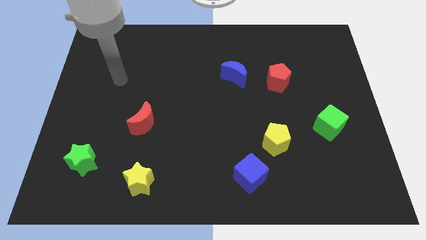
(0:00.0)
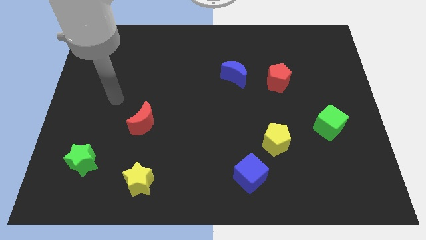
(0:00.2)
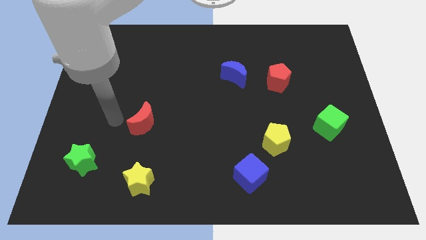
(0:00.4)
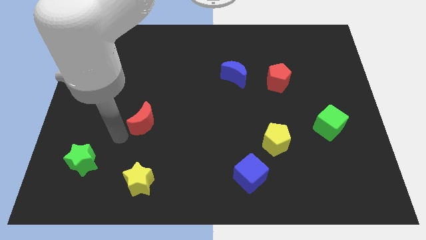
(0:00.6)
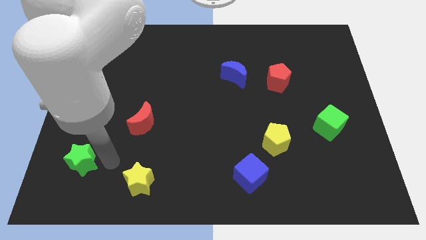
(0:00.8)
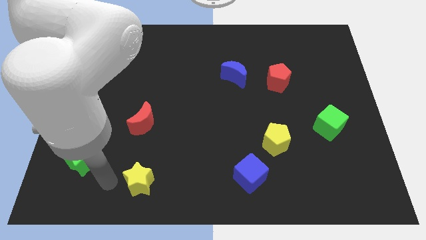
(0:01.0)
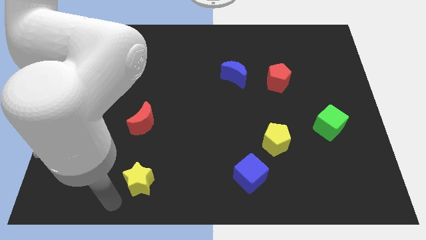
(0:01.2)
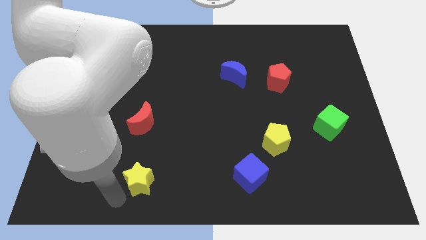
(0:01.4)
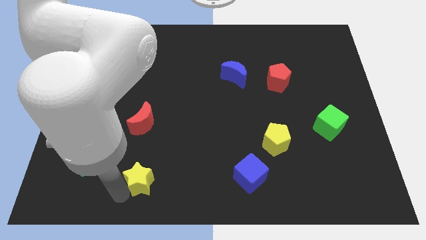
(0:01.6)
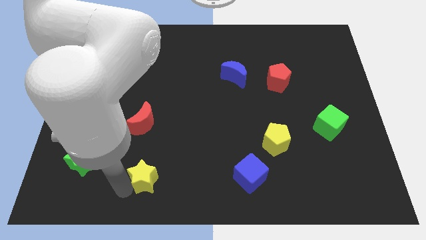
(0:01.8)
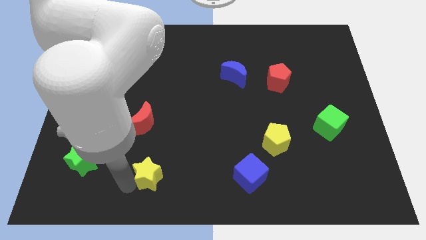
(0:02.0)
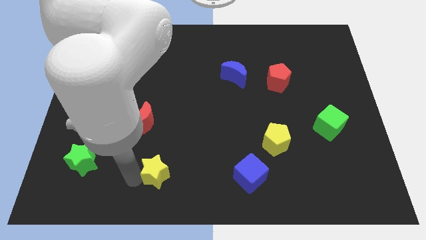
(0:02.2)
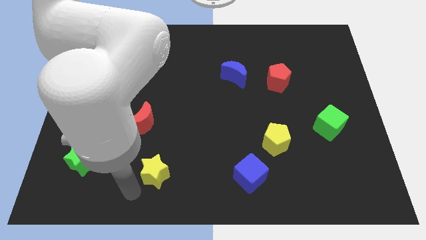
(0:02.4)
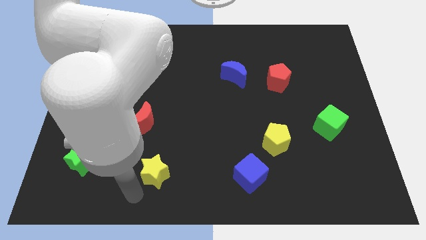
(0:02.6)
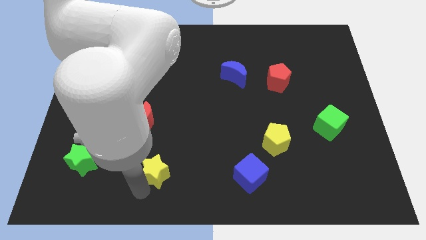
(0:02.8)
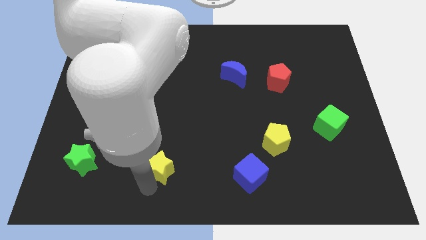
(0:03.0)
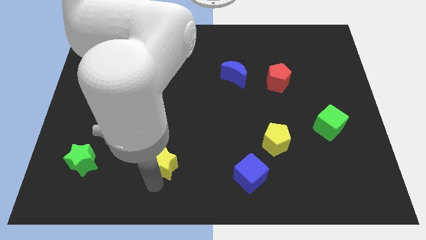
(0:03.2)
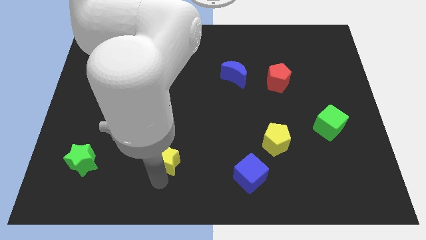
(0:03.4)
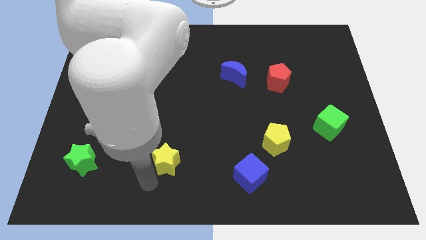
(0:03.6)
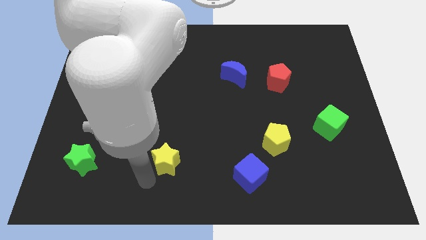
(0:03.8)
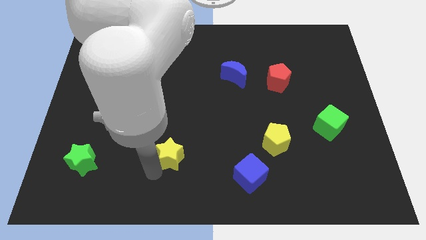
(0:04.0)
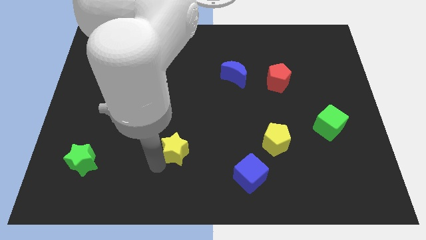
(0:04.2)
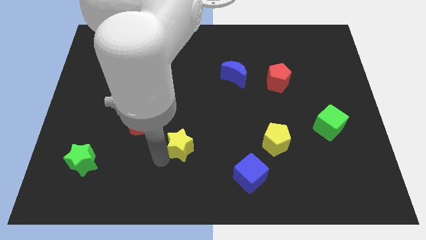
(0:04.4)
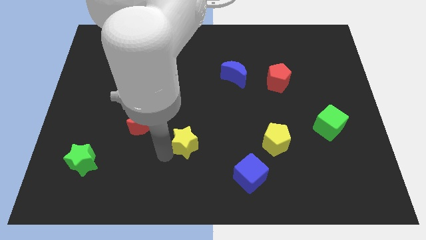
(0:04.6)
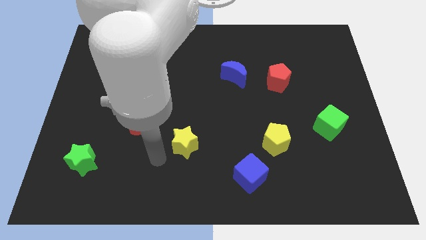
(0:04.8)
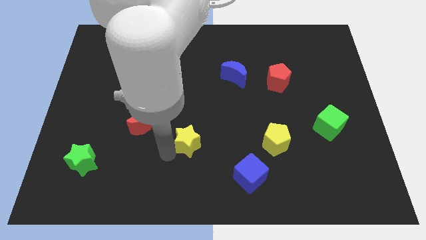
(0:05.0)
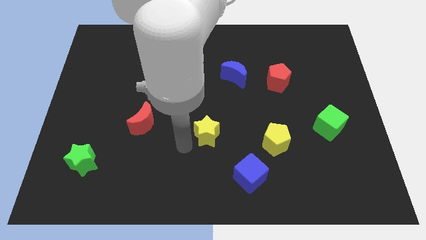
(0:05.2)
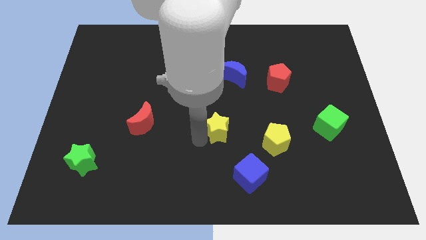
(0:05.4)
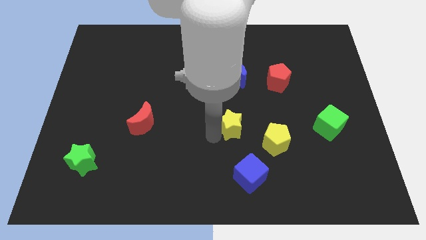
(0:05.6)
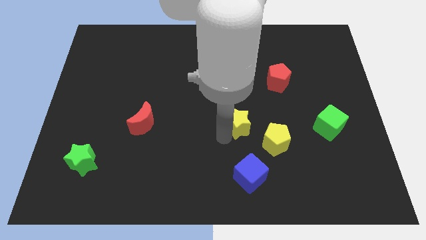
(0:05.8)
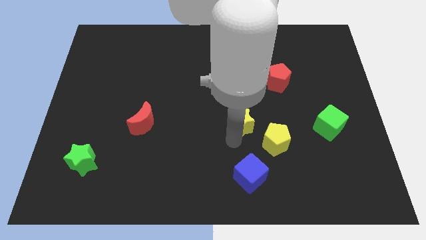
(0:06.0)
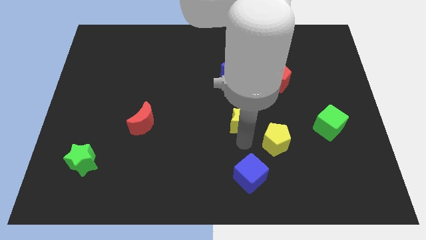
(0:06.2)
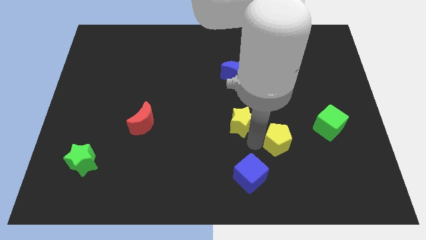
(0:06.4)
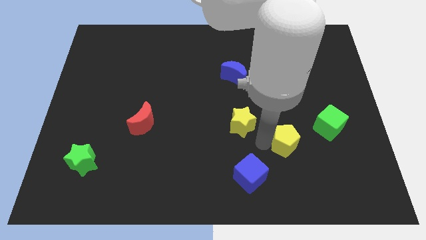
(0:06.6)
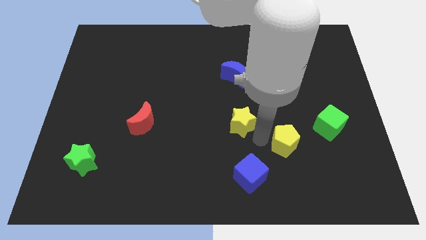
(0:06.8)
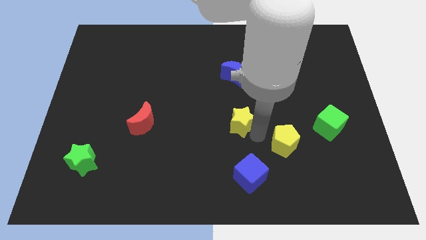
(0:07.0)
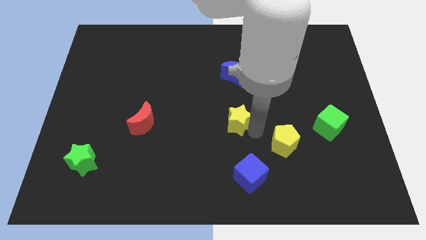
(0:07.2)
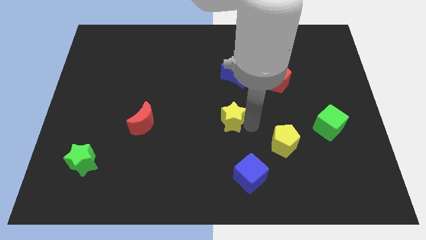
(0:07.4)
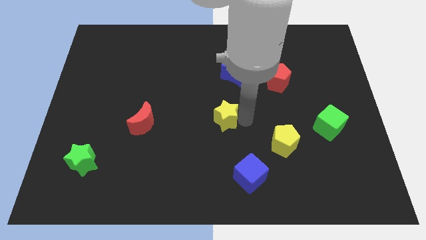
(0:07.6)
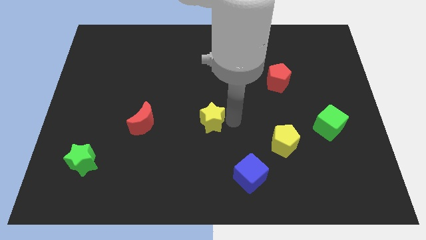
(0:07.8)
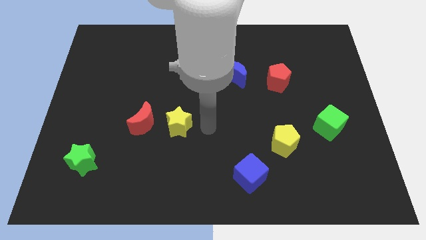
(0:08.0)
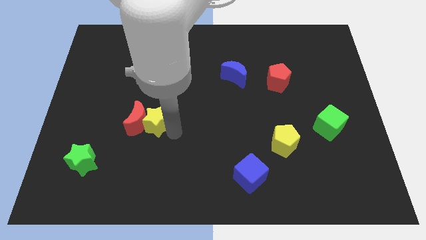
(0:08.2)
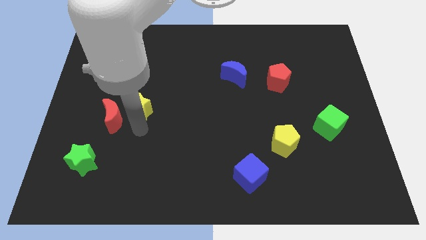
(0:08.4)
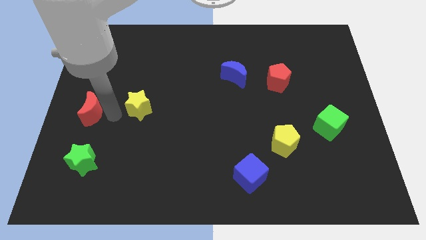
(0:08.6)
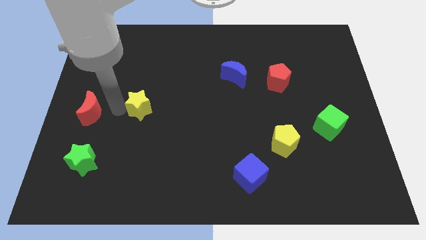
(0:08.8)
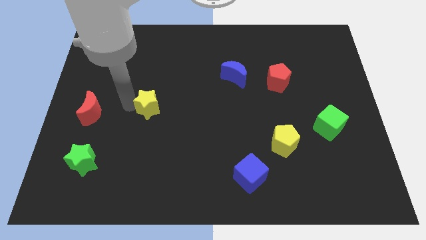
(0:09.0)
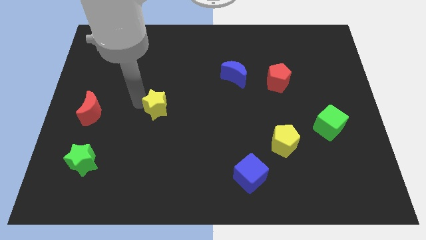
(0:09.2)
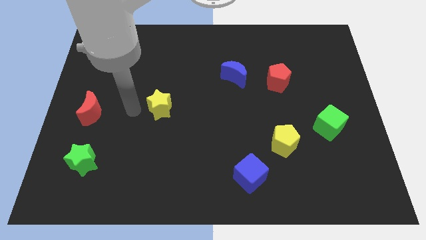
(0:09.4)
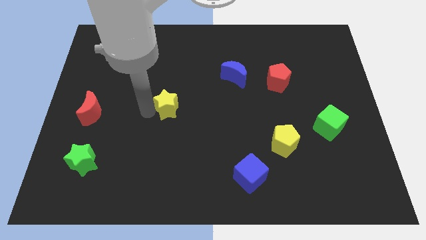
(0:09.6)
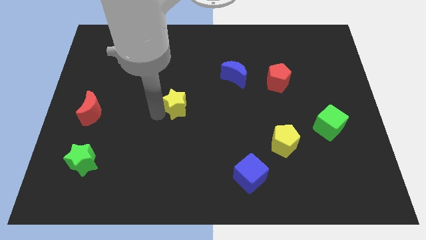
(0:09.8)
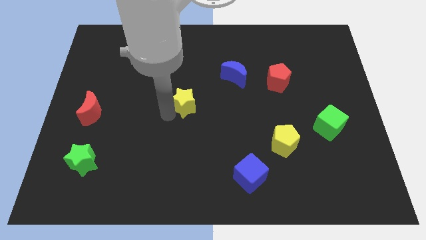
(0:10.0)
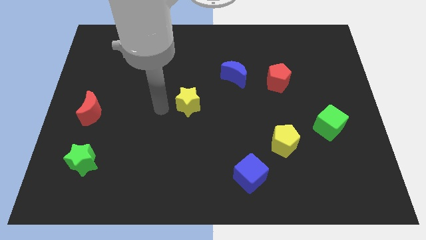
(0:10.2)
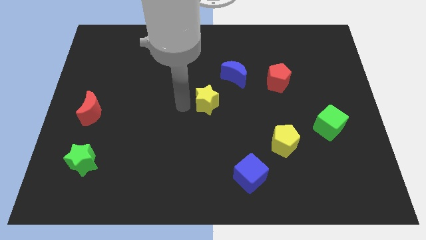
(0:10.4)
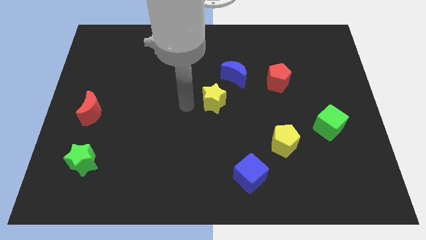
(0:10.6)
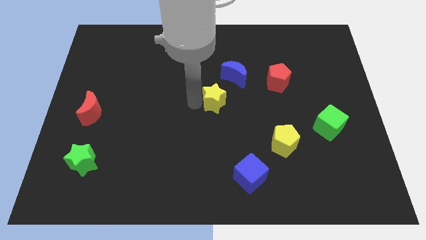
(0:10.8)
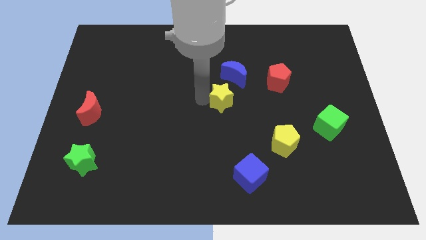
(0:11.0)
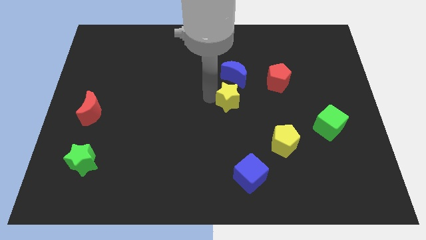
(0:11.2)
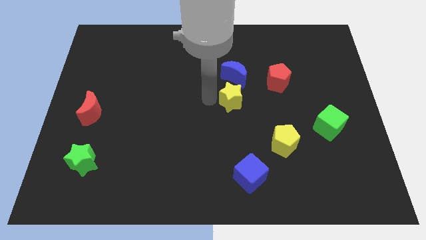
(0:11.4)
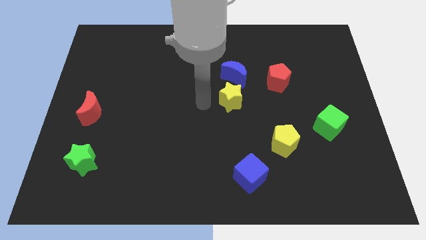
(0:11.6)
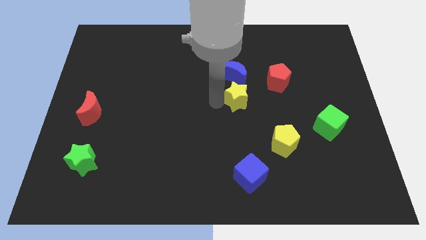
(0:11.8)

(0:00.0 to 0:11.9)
put the yellow star to the bottom left side of the red pentagon
